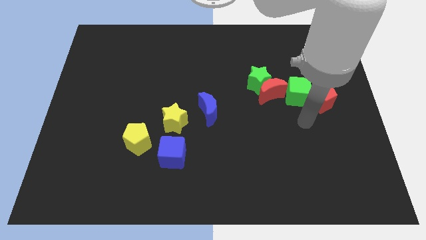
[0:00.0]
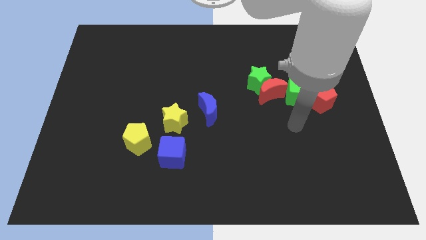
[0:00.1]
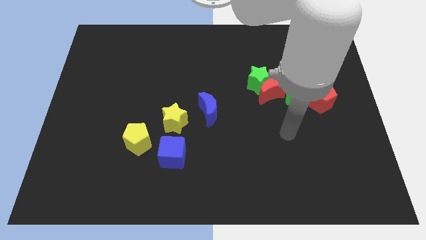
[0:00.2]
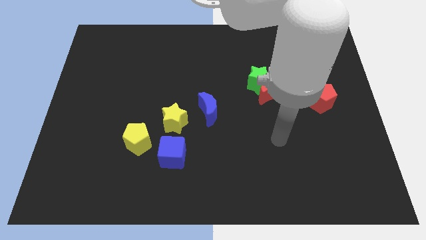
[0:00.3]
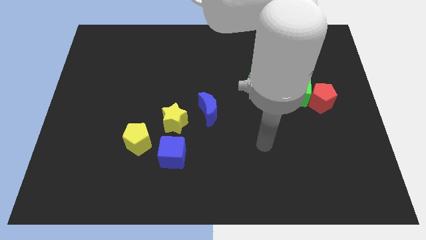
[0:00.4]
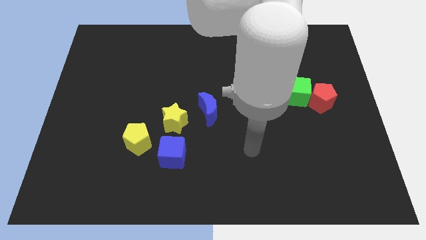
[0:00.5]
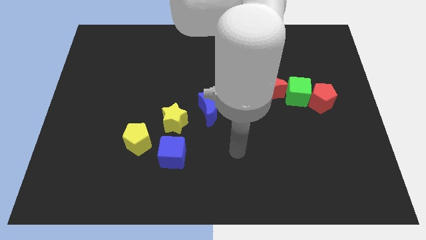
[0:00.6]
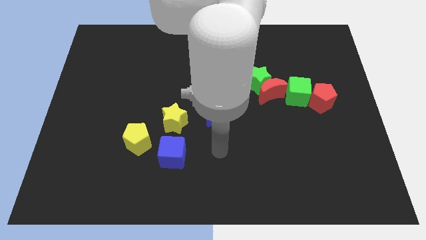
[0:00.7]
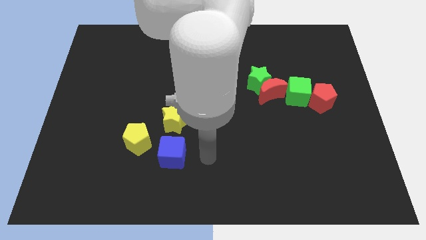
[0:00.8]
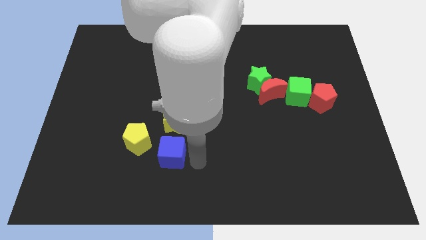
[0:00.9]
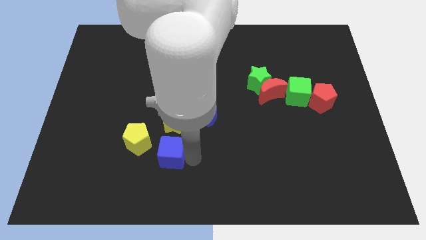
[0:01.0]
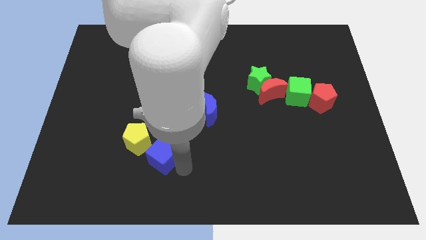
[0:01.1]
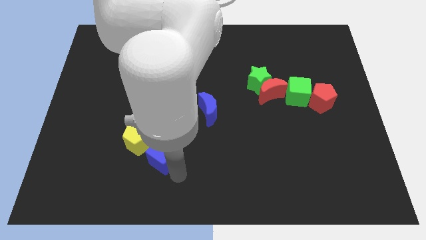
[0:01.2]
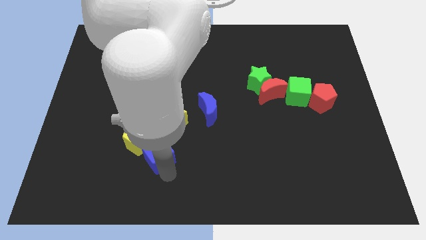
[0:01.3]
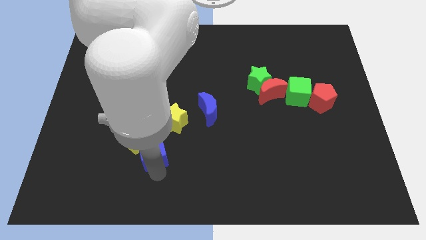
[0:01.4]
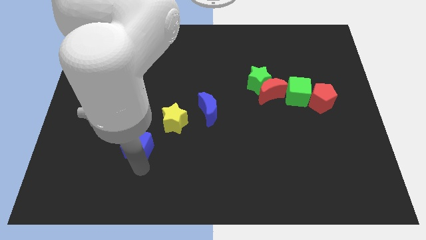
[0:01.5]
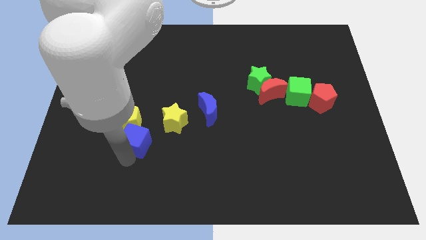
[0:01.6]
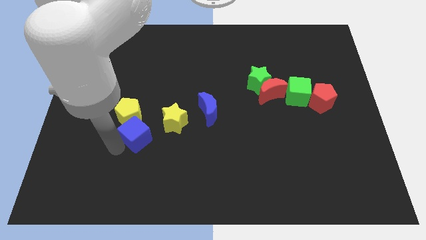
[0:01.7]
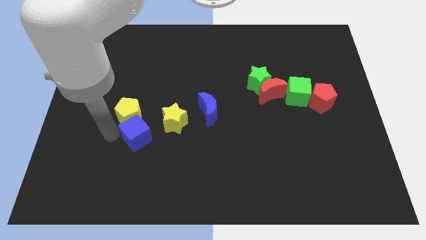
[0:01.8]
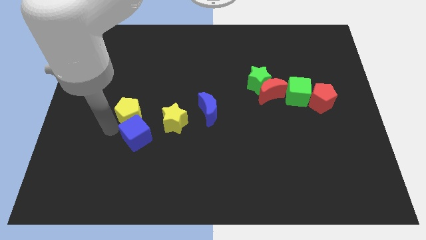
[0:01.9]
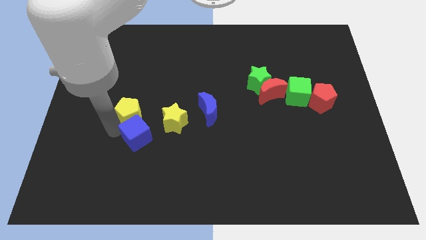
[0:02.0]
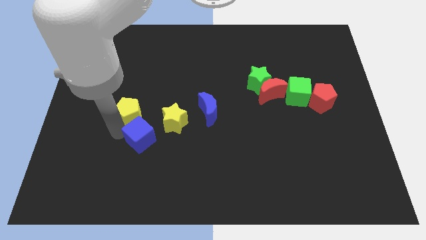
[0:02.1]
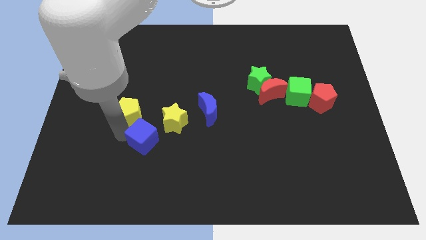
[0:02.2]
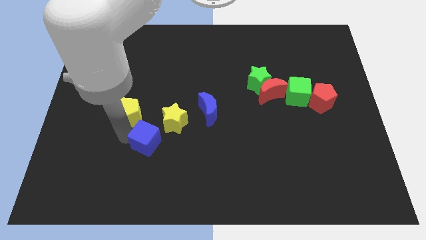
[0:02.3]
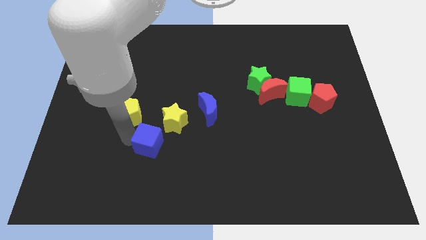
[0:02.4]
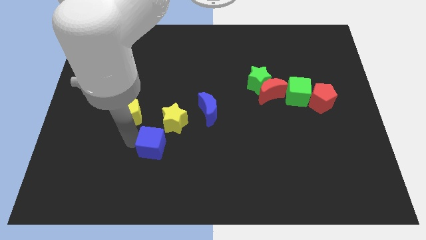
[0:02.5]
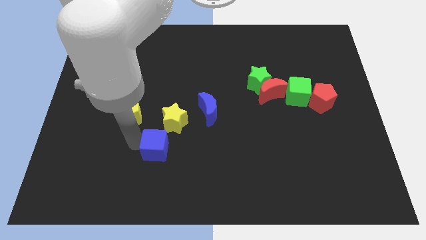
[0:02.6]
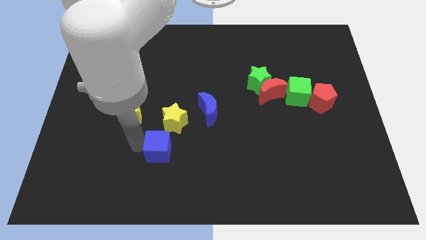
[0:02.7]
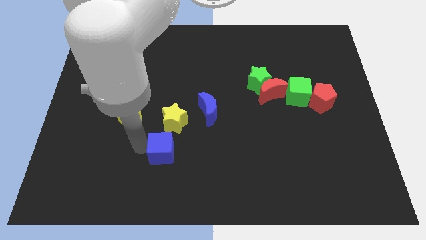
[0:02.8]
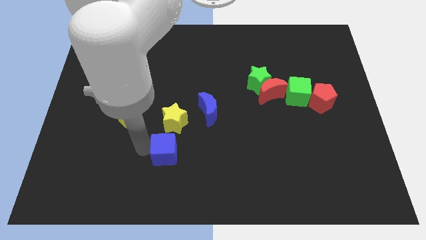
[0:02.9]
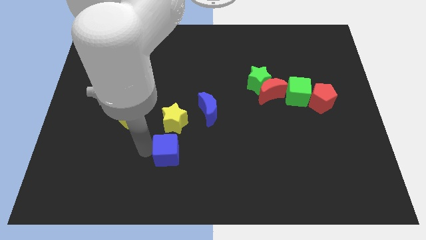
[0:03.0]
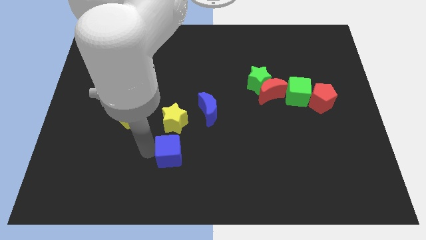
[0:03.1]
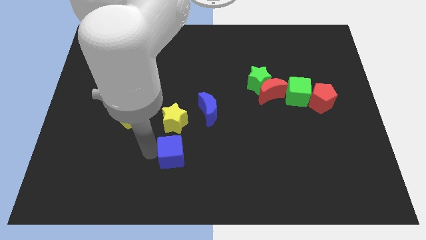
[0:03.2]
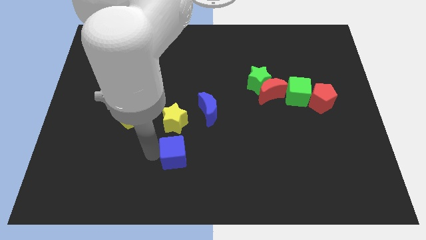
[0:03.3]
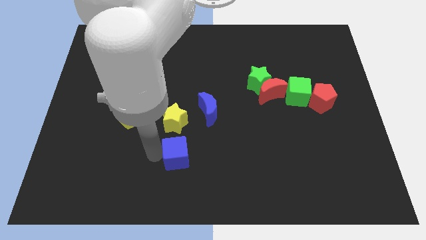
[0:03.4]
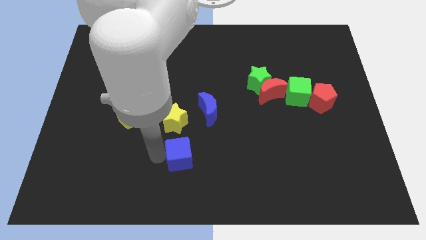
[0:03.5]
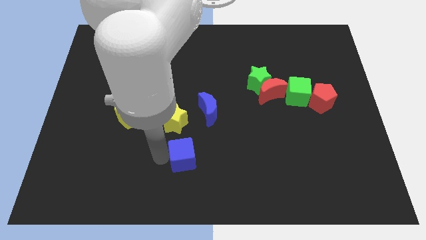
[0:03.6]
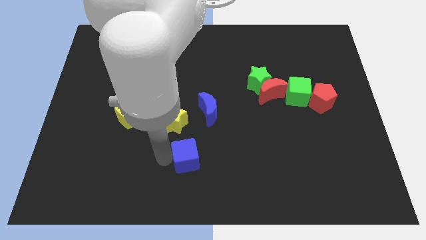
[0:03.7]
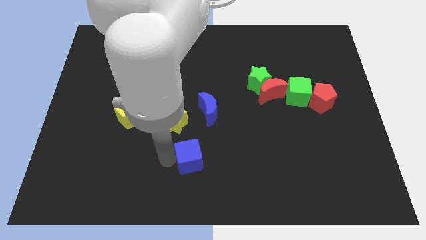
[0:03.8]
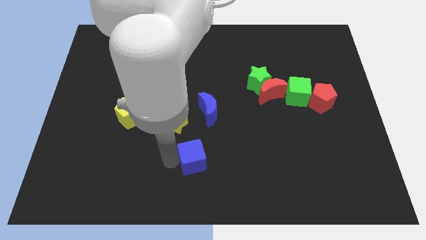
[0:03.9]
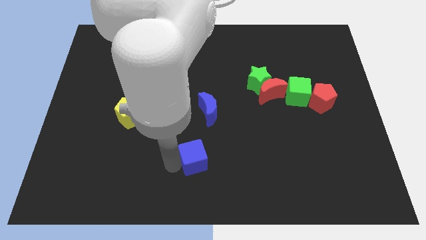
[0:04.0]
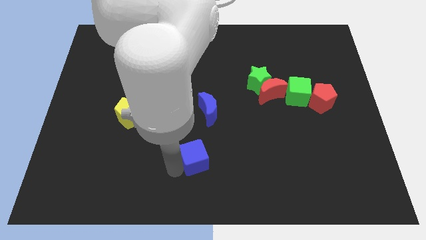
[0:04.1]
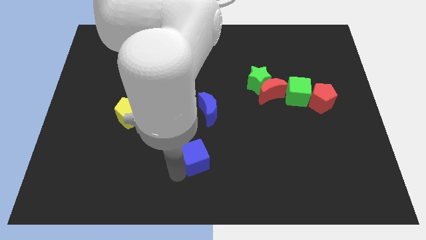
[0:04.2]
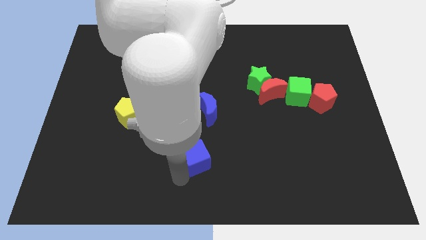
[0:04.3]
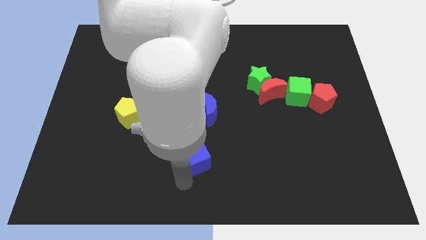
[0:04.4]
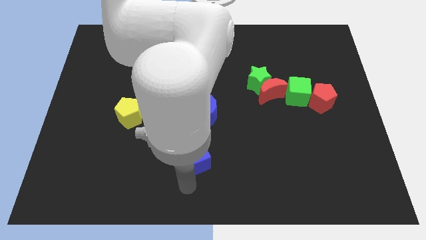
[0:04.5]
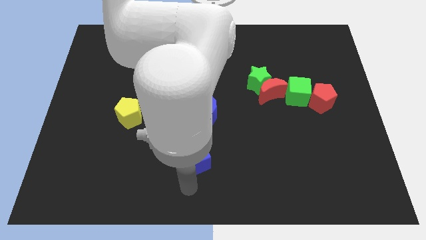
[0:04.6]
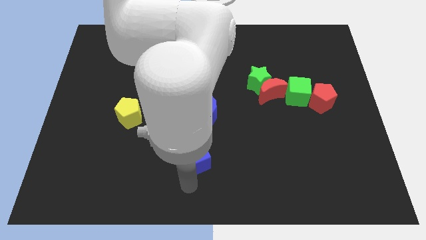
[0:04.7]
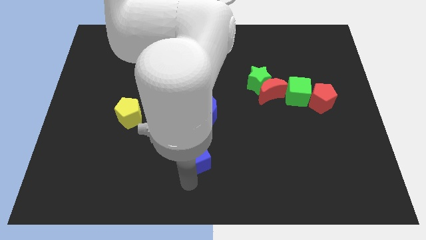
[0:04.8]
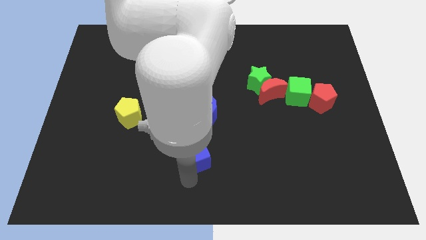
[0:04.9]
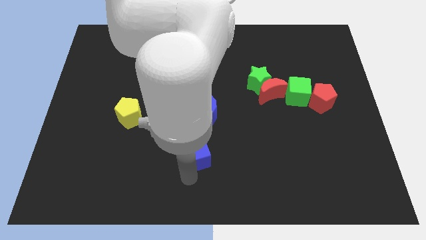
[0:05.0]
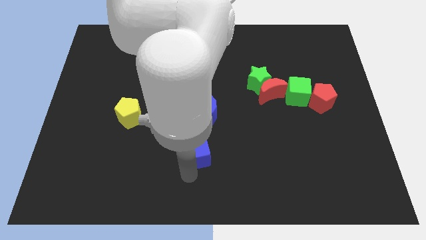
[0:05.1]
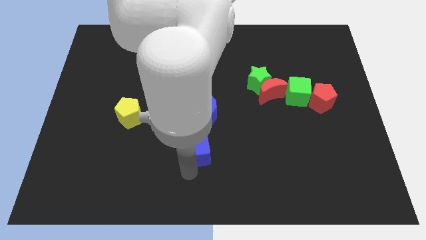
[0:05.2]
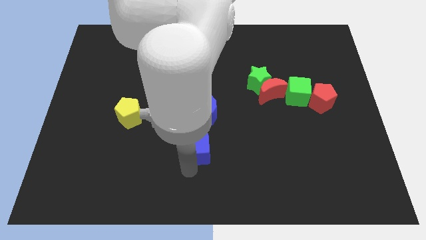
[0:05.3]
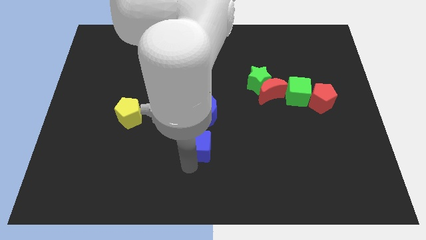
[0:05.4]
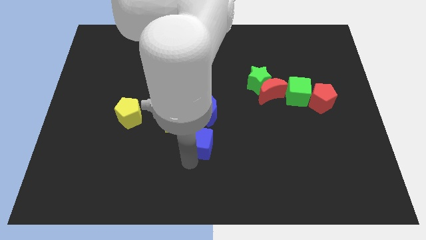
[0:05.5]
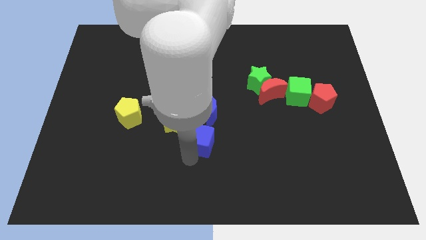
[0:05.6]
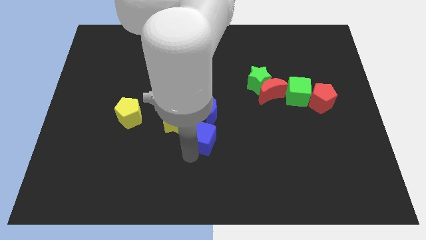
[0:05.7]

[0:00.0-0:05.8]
slide the blue cube to the right of the yellow star
